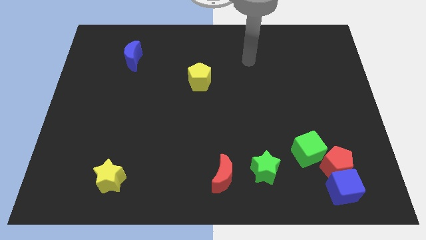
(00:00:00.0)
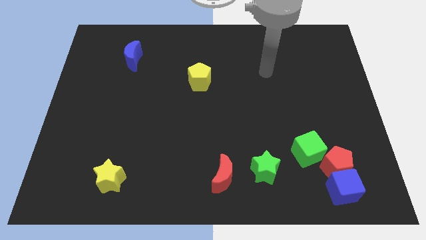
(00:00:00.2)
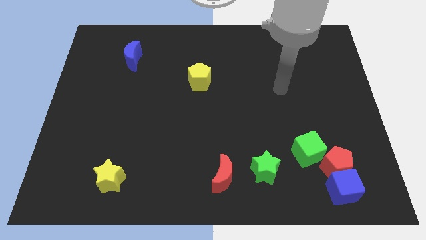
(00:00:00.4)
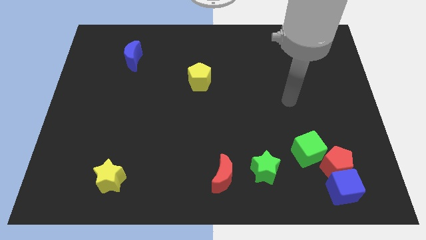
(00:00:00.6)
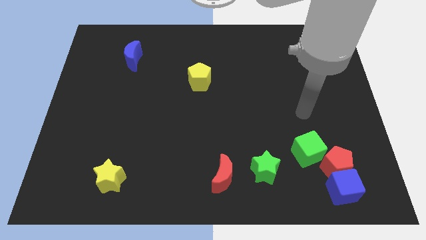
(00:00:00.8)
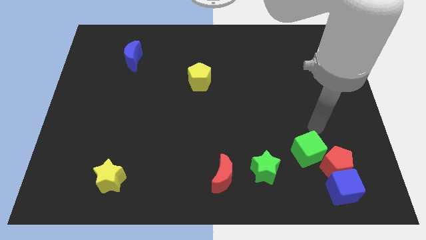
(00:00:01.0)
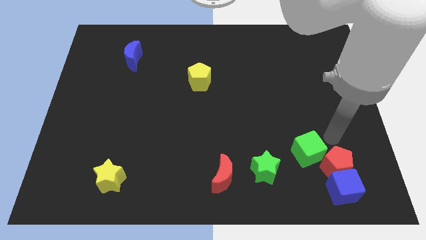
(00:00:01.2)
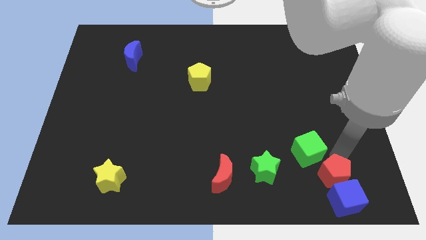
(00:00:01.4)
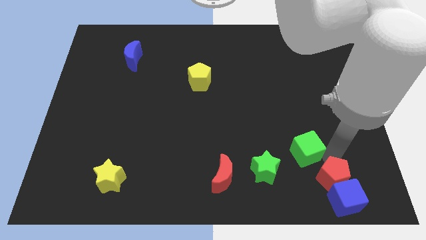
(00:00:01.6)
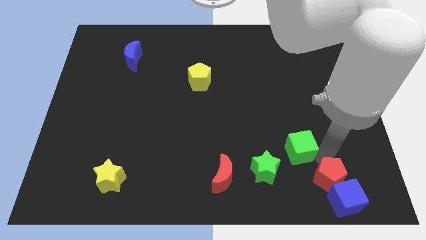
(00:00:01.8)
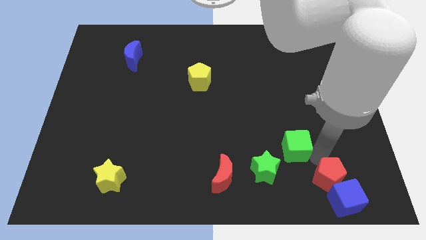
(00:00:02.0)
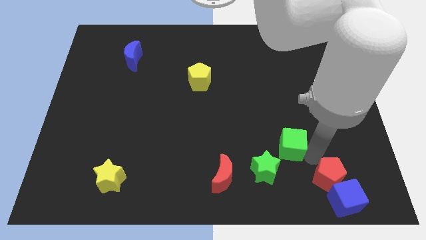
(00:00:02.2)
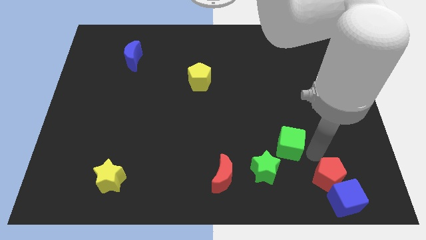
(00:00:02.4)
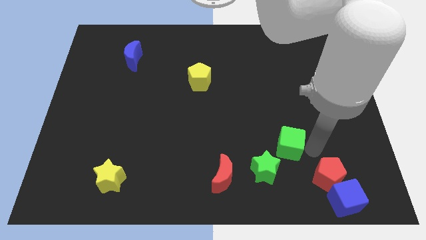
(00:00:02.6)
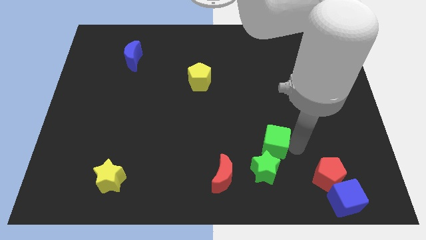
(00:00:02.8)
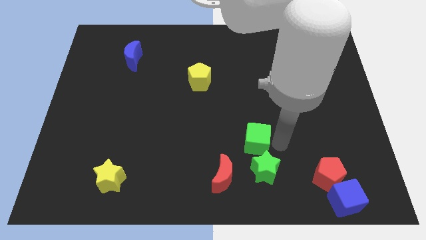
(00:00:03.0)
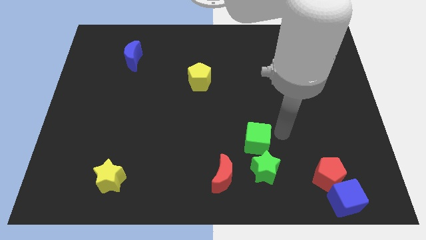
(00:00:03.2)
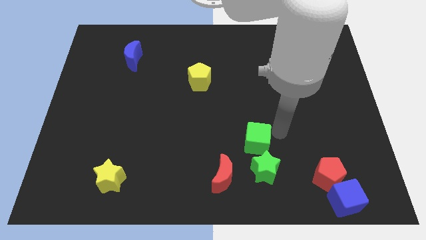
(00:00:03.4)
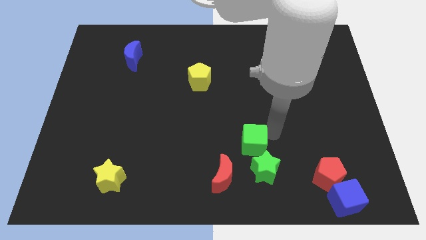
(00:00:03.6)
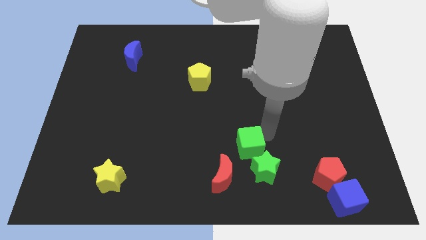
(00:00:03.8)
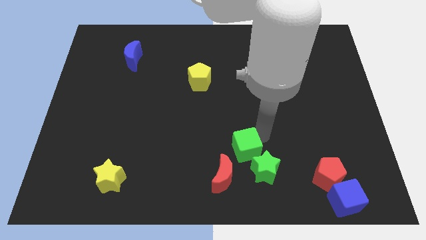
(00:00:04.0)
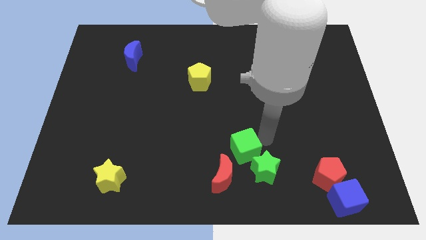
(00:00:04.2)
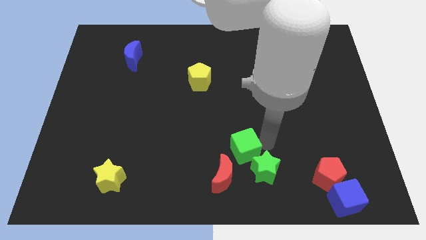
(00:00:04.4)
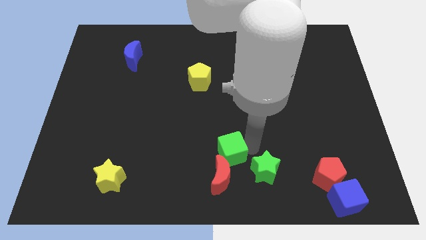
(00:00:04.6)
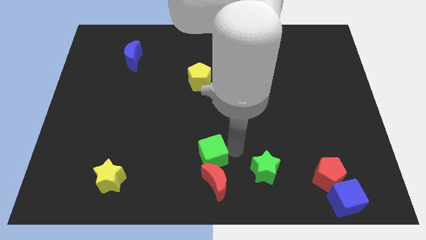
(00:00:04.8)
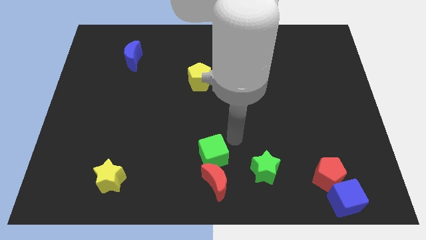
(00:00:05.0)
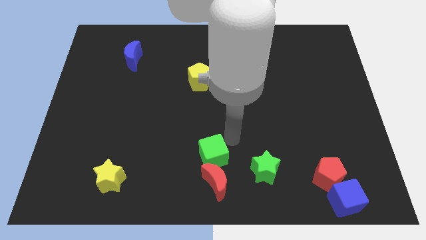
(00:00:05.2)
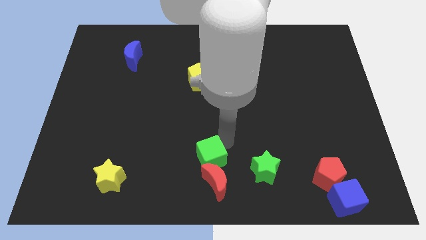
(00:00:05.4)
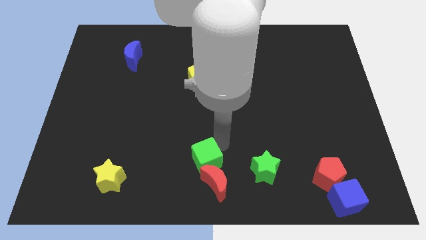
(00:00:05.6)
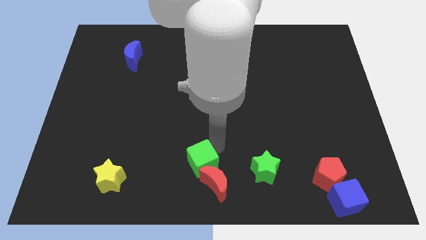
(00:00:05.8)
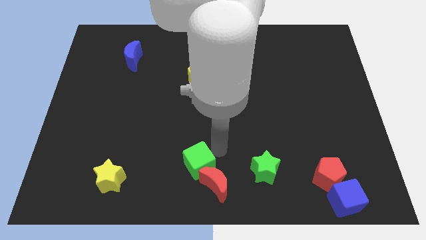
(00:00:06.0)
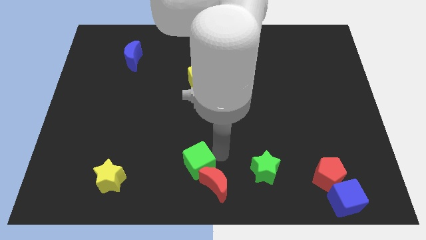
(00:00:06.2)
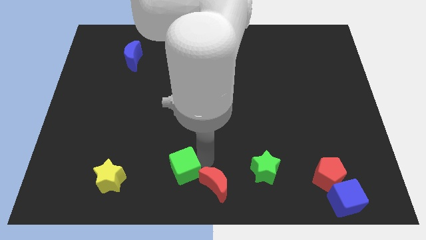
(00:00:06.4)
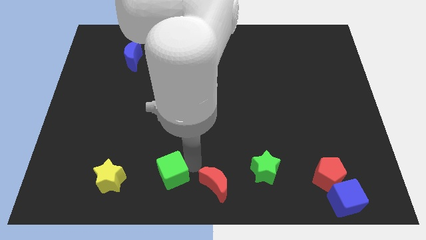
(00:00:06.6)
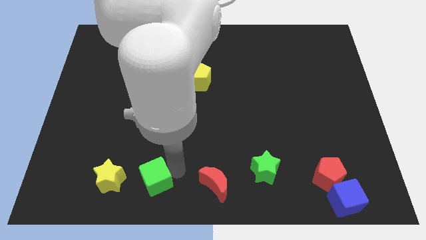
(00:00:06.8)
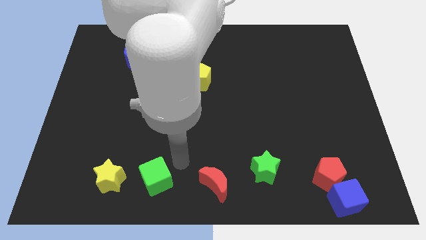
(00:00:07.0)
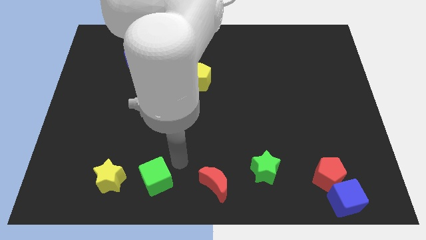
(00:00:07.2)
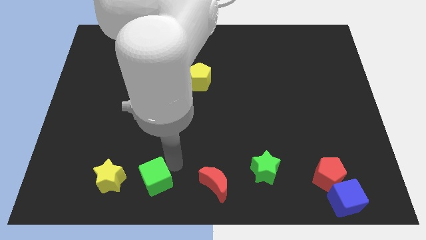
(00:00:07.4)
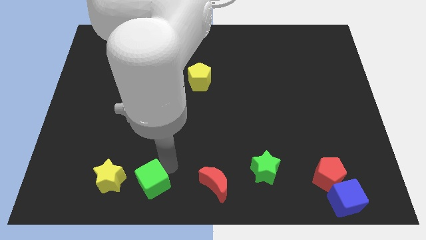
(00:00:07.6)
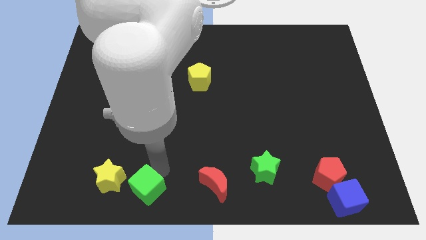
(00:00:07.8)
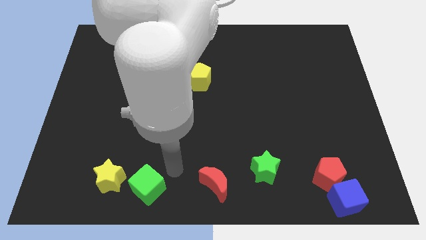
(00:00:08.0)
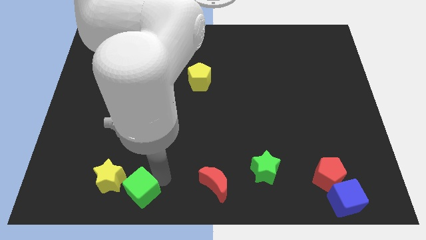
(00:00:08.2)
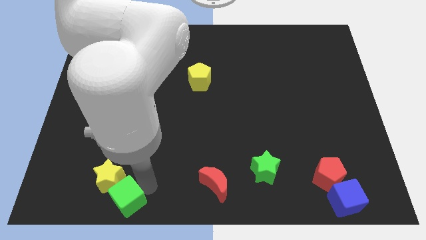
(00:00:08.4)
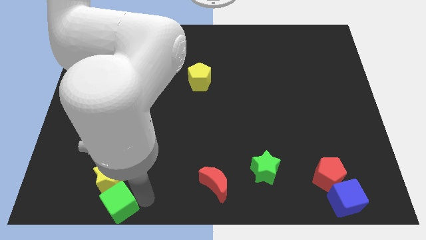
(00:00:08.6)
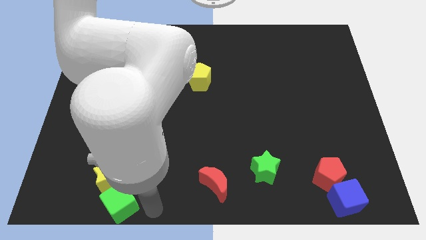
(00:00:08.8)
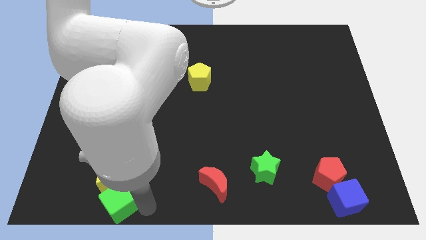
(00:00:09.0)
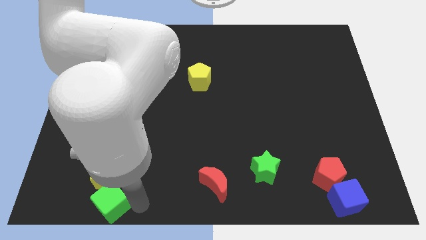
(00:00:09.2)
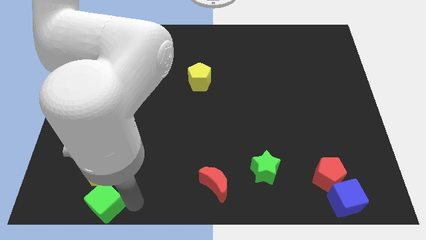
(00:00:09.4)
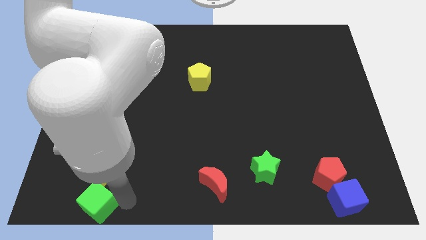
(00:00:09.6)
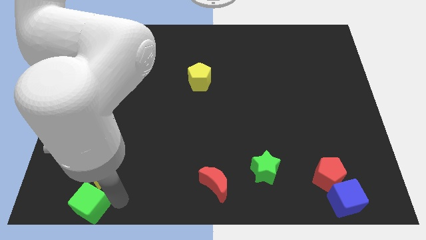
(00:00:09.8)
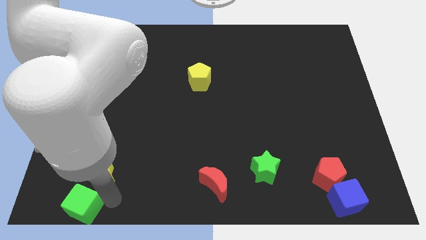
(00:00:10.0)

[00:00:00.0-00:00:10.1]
push the green cube to the lower left corner

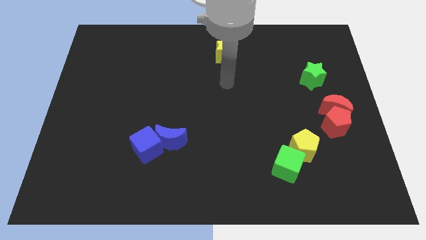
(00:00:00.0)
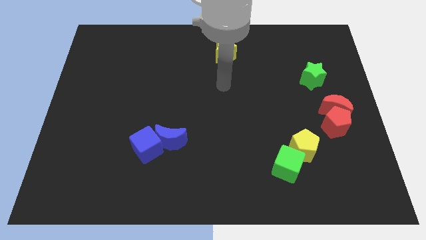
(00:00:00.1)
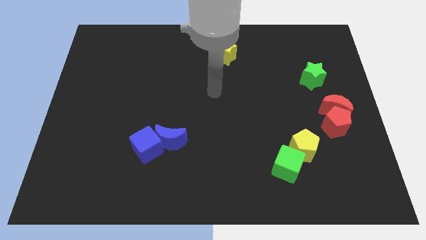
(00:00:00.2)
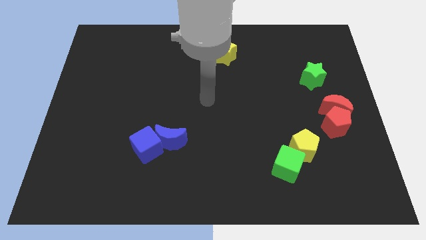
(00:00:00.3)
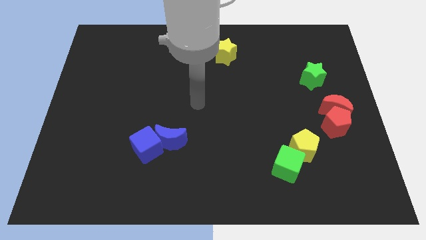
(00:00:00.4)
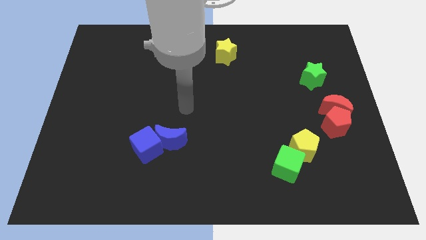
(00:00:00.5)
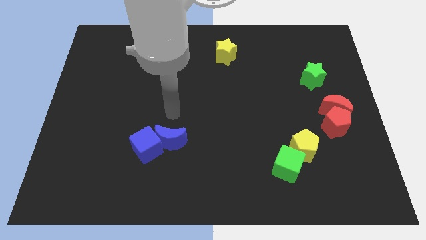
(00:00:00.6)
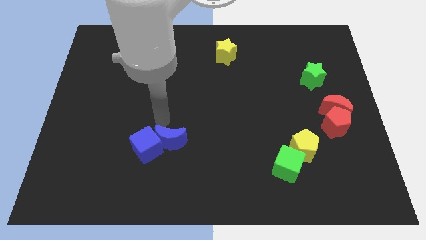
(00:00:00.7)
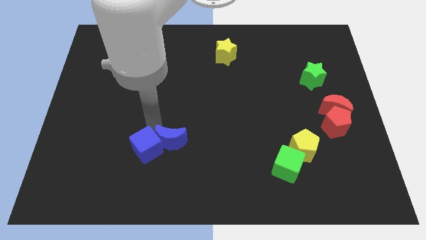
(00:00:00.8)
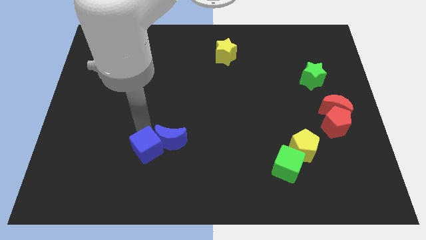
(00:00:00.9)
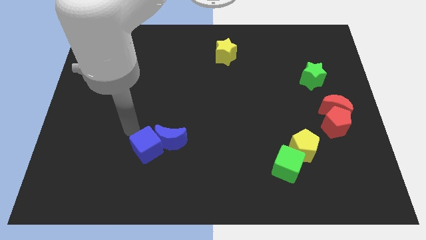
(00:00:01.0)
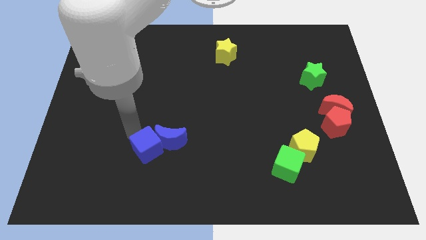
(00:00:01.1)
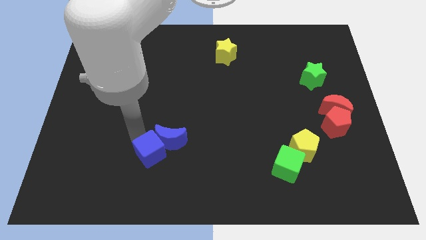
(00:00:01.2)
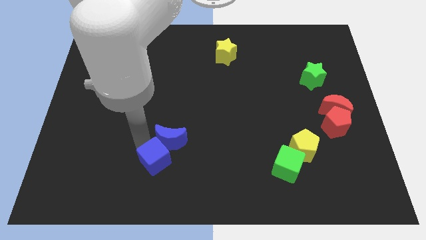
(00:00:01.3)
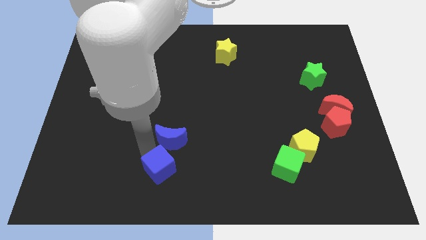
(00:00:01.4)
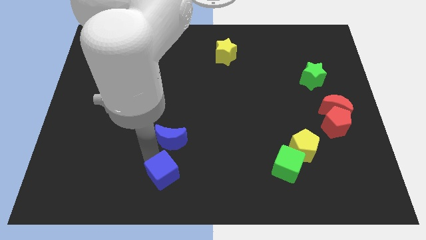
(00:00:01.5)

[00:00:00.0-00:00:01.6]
put the blue cube to the bottom
